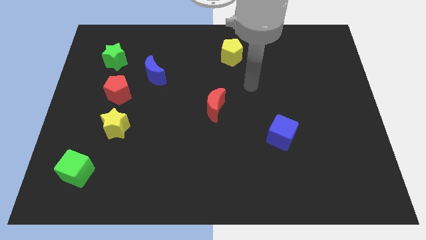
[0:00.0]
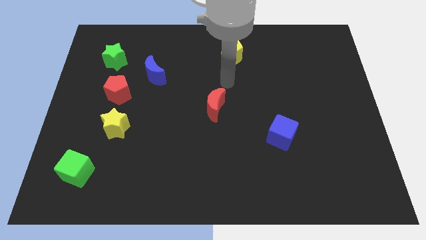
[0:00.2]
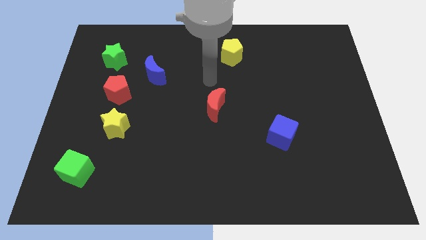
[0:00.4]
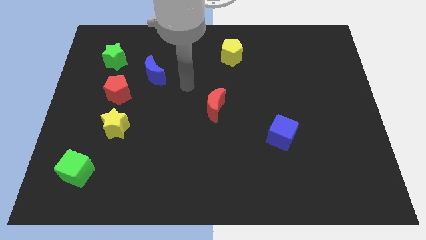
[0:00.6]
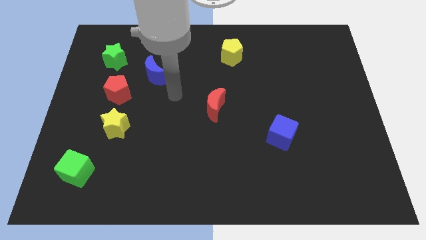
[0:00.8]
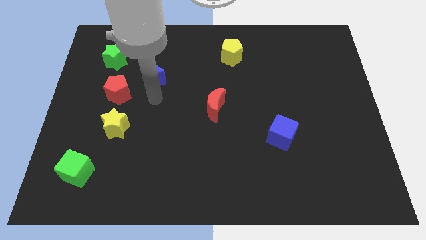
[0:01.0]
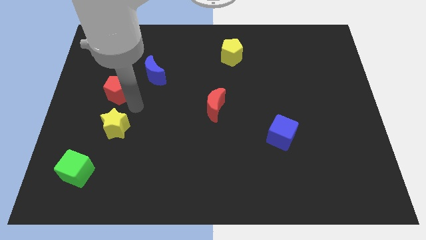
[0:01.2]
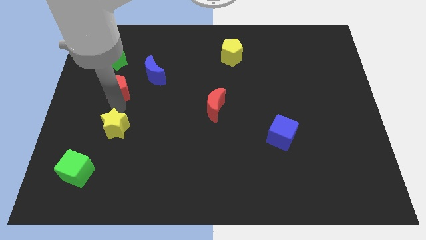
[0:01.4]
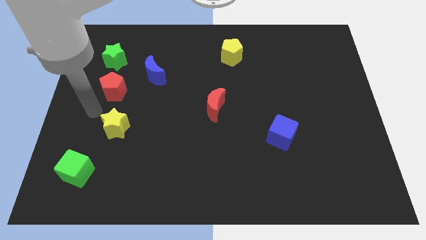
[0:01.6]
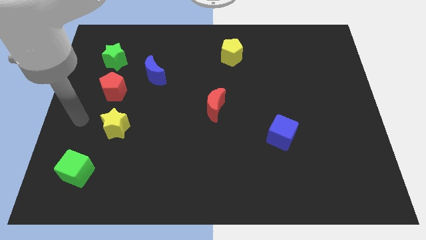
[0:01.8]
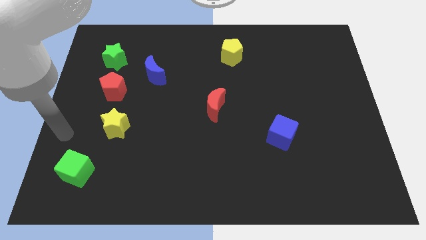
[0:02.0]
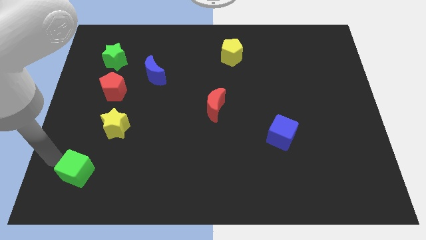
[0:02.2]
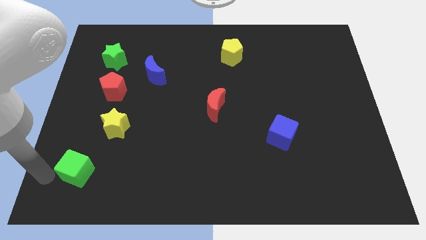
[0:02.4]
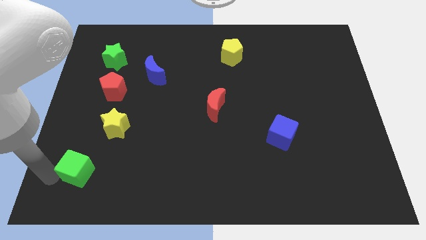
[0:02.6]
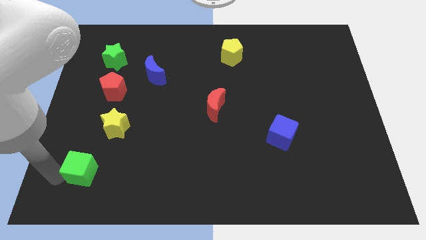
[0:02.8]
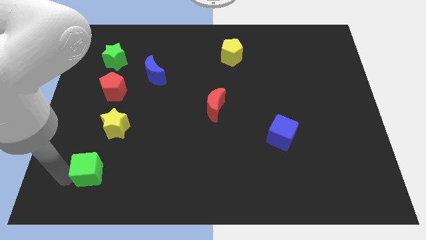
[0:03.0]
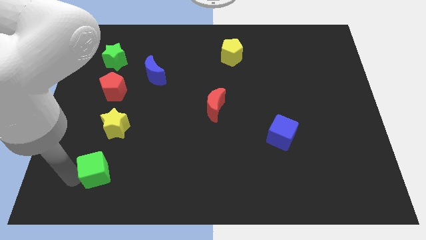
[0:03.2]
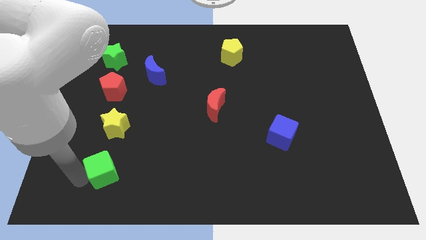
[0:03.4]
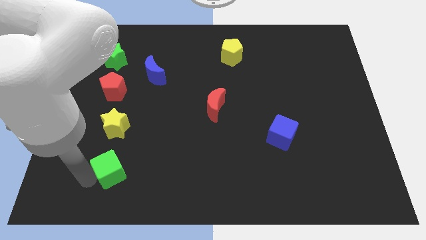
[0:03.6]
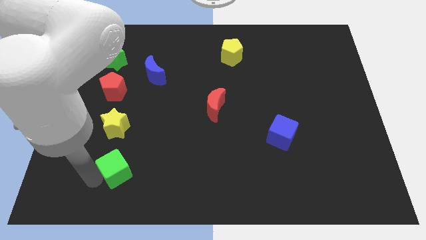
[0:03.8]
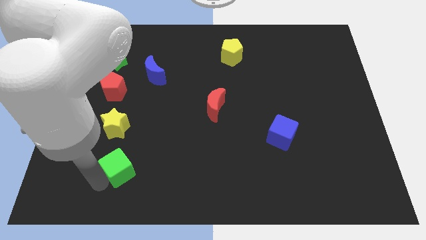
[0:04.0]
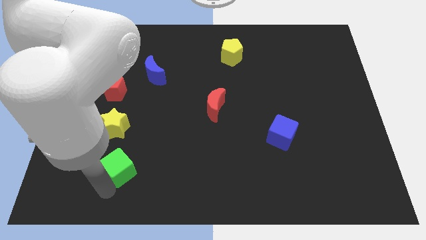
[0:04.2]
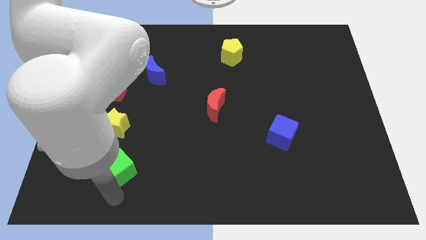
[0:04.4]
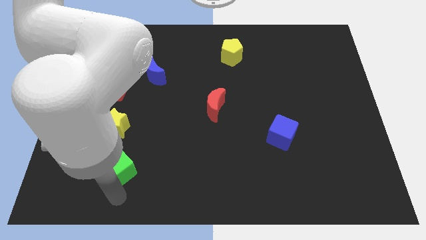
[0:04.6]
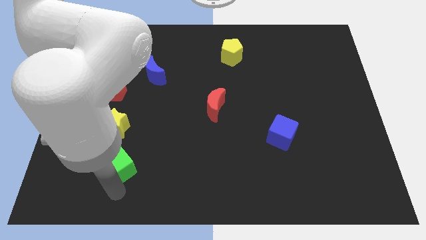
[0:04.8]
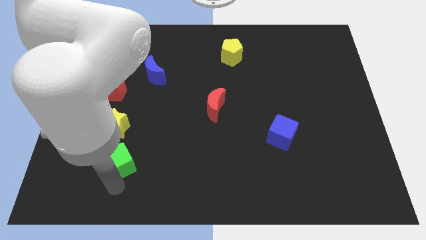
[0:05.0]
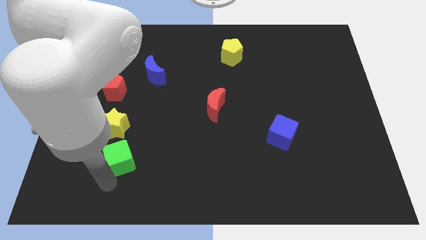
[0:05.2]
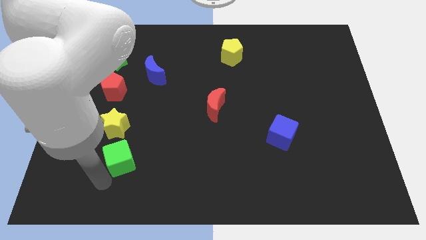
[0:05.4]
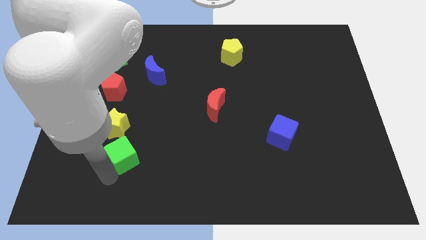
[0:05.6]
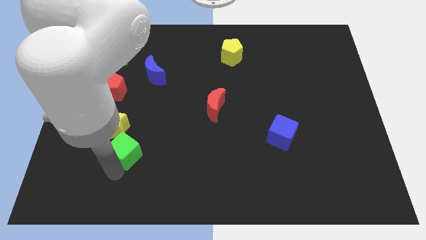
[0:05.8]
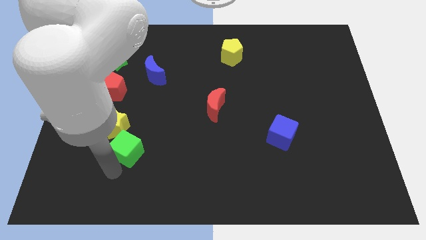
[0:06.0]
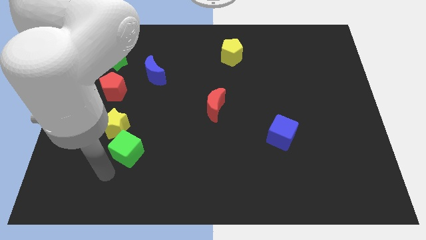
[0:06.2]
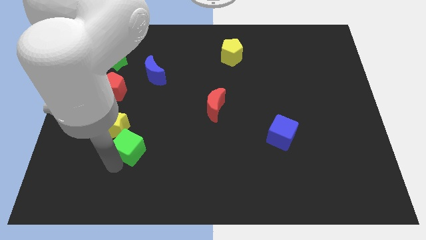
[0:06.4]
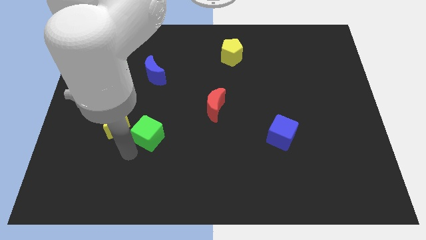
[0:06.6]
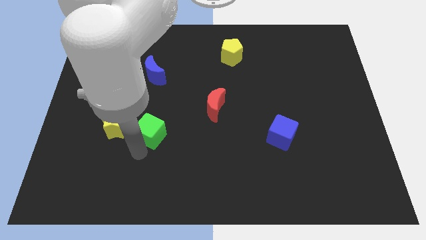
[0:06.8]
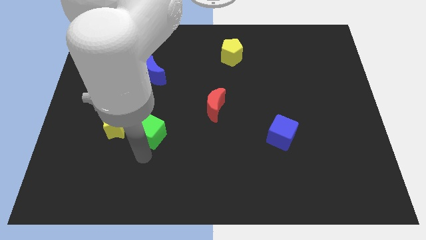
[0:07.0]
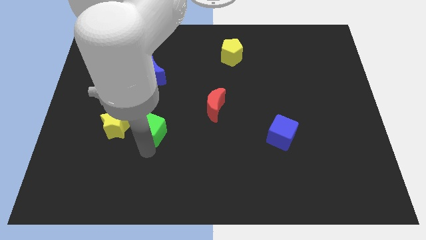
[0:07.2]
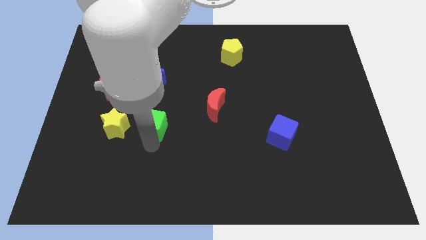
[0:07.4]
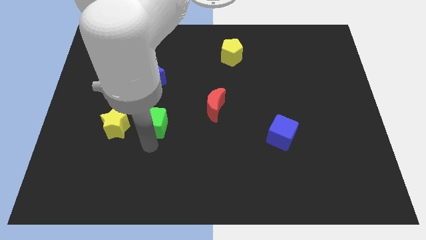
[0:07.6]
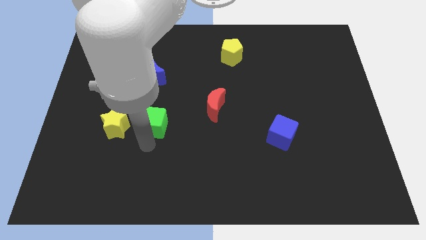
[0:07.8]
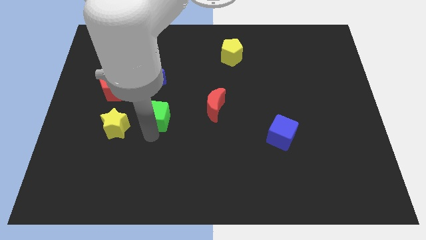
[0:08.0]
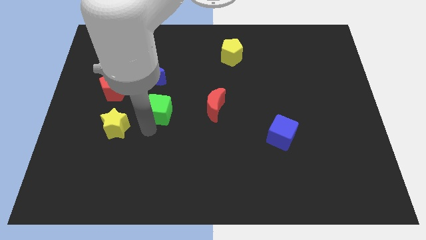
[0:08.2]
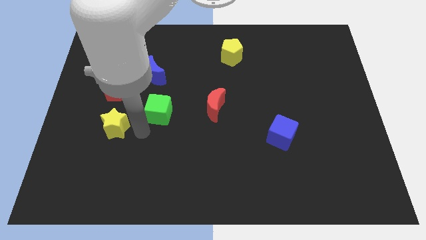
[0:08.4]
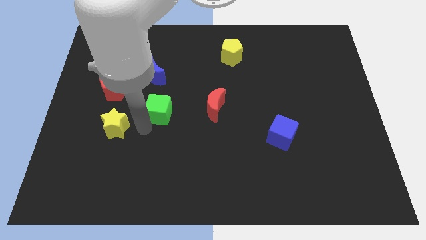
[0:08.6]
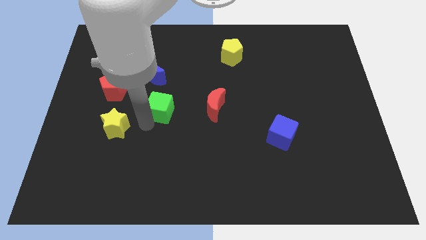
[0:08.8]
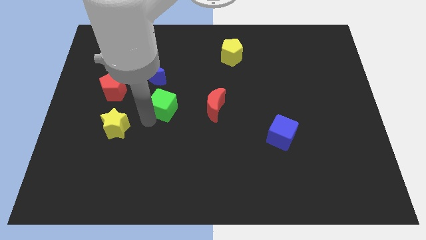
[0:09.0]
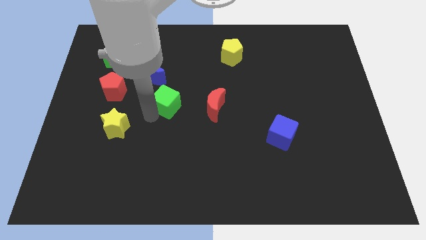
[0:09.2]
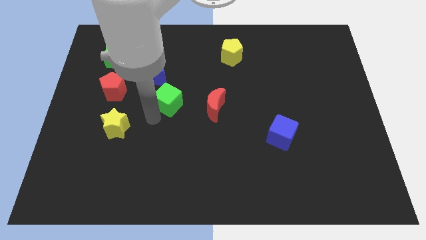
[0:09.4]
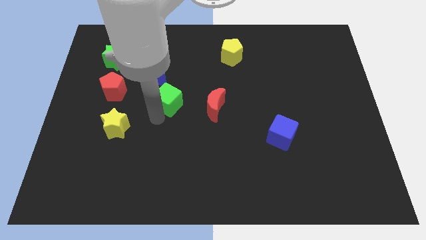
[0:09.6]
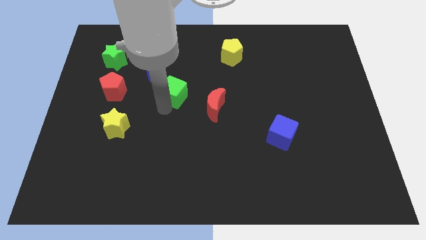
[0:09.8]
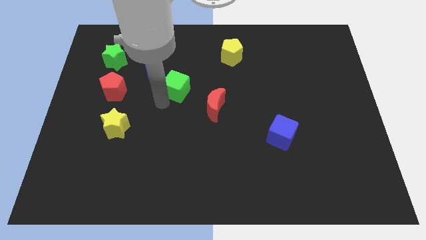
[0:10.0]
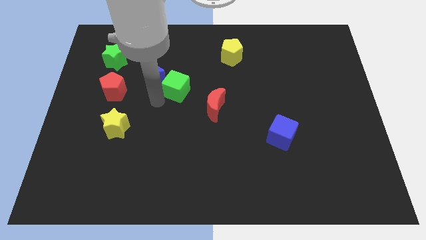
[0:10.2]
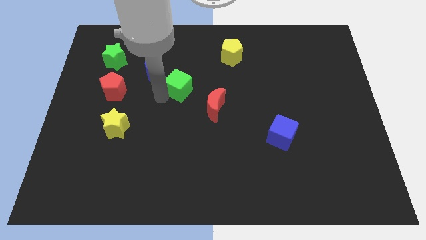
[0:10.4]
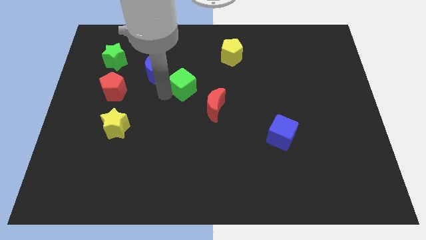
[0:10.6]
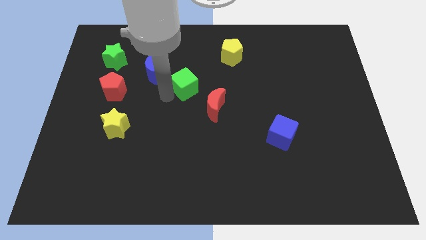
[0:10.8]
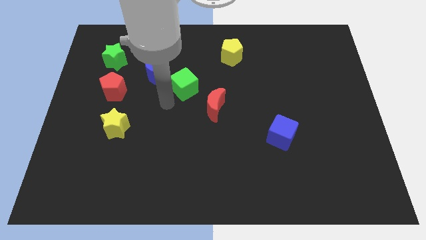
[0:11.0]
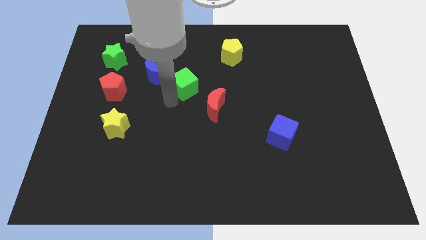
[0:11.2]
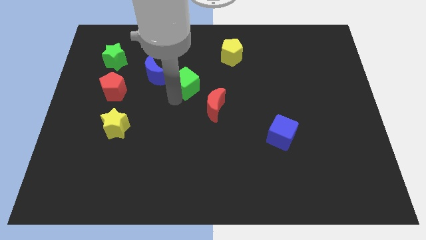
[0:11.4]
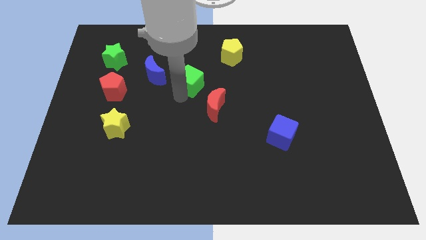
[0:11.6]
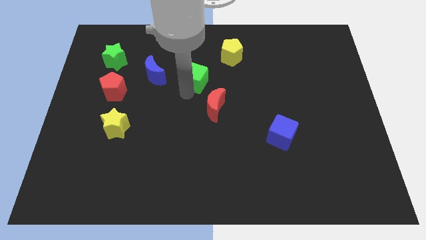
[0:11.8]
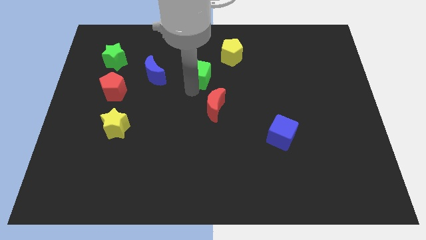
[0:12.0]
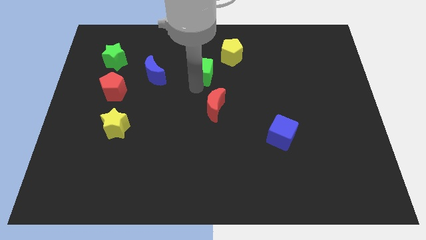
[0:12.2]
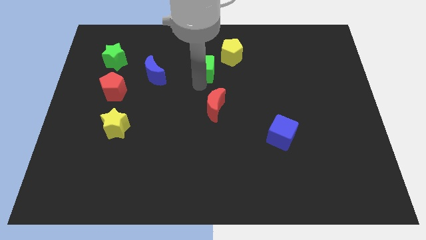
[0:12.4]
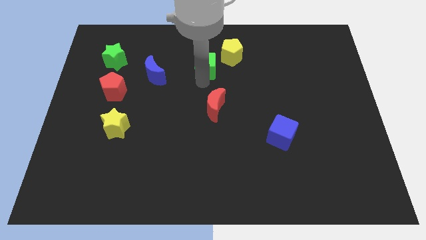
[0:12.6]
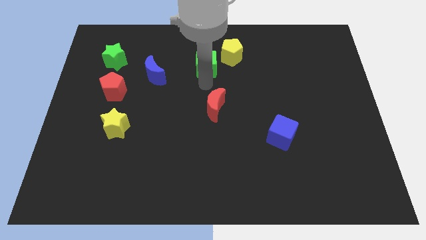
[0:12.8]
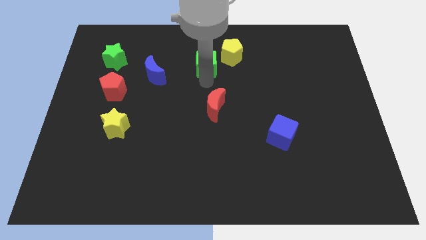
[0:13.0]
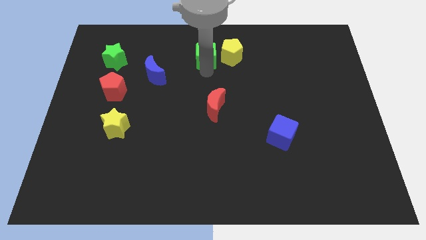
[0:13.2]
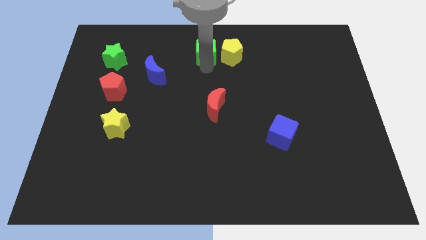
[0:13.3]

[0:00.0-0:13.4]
put the green cube to the top
